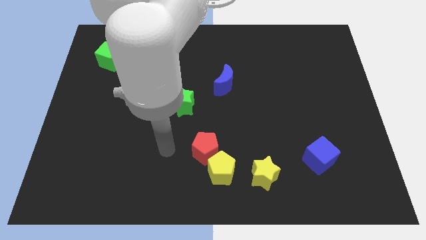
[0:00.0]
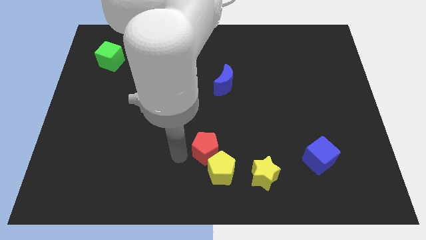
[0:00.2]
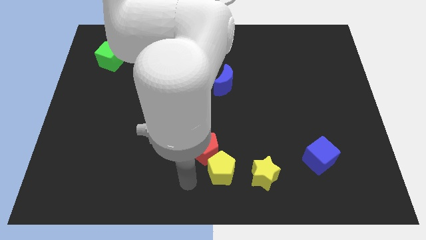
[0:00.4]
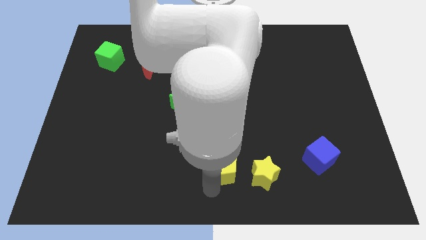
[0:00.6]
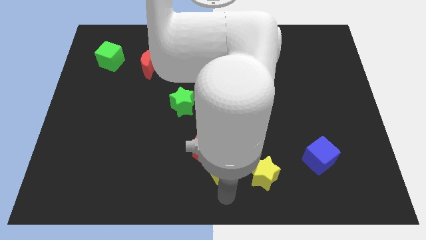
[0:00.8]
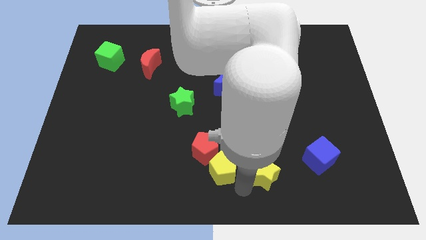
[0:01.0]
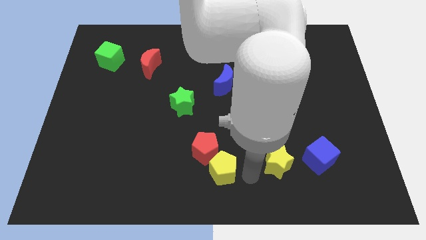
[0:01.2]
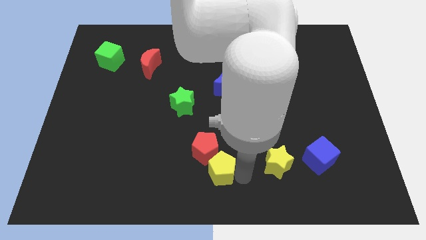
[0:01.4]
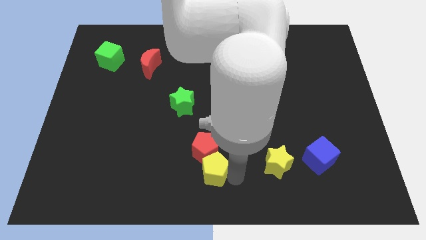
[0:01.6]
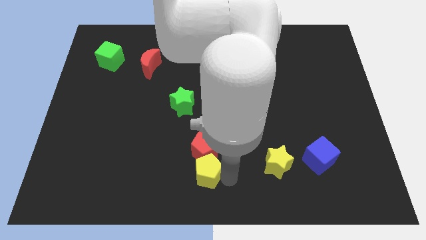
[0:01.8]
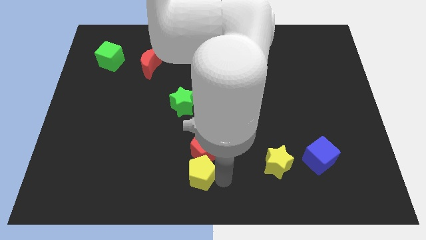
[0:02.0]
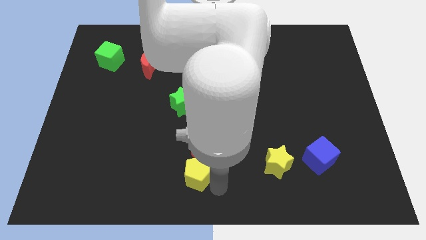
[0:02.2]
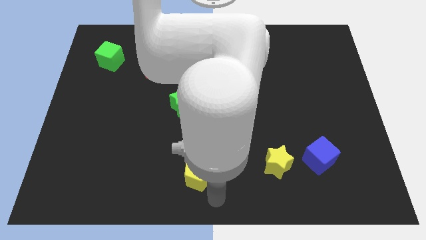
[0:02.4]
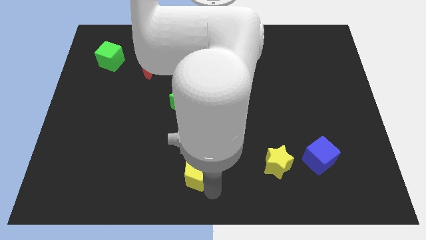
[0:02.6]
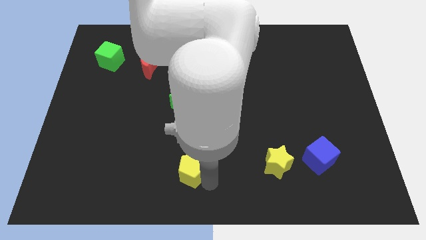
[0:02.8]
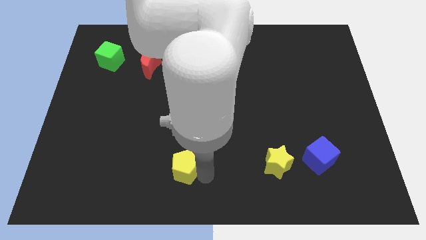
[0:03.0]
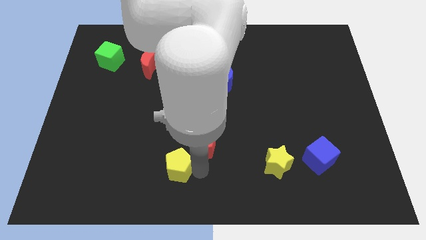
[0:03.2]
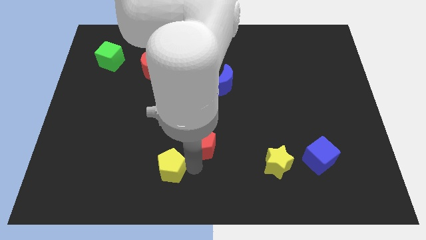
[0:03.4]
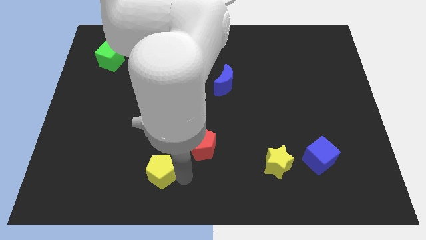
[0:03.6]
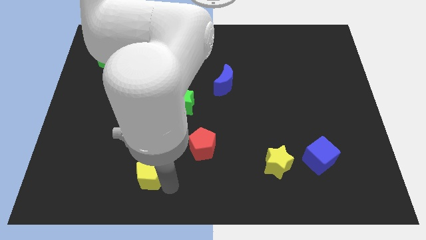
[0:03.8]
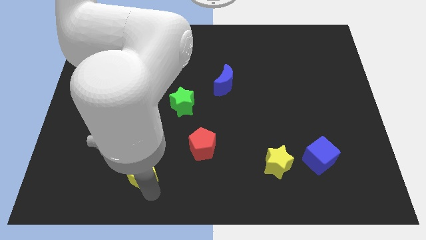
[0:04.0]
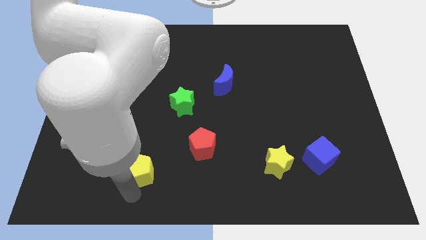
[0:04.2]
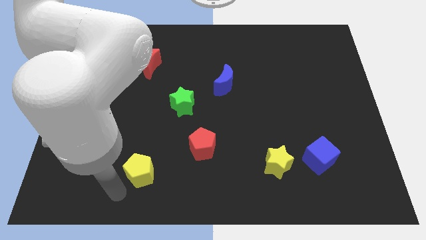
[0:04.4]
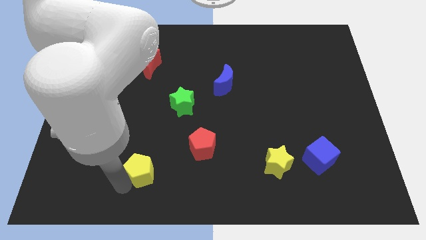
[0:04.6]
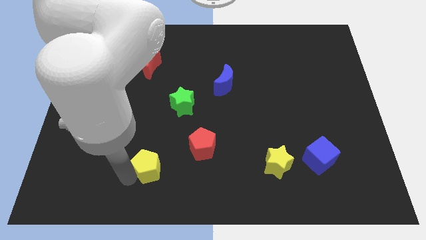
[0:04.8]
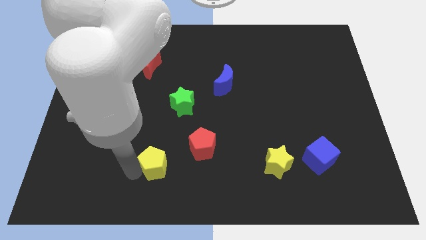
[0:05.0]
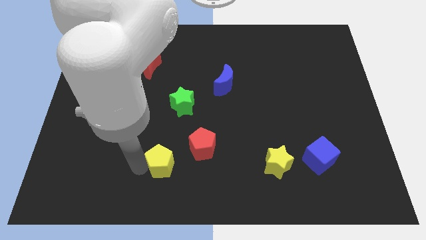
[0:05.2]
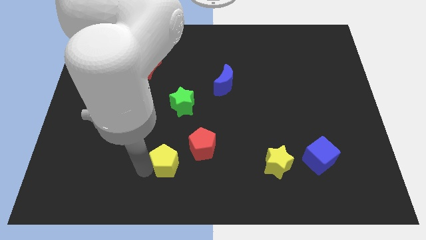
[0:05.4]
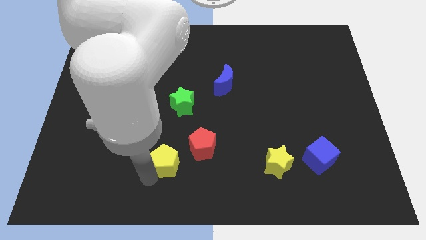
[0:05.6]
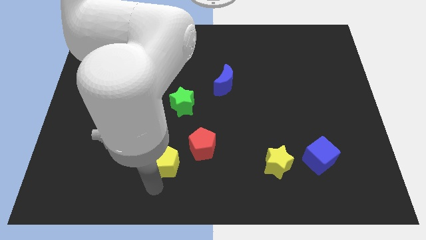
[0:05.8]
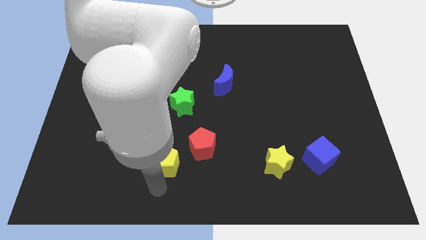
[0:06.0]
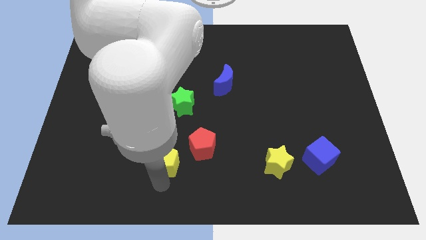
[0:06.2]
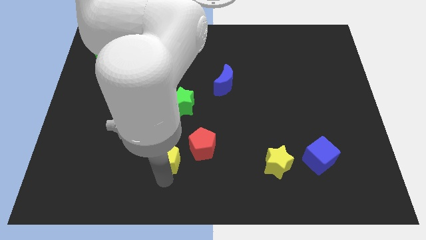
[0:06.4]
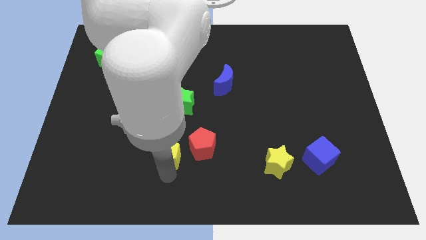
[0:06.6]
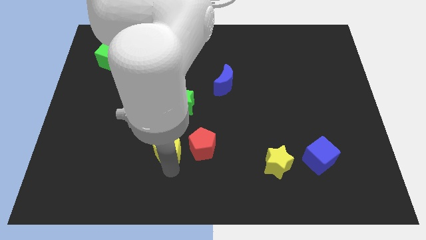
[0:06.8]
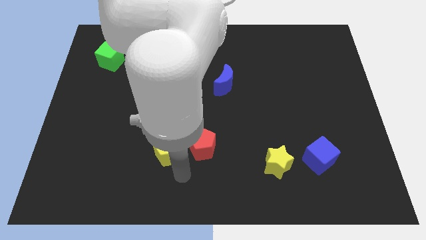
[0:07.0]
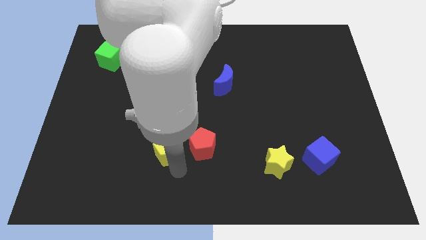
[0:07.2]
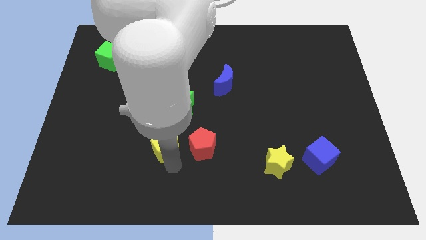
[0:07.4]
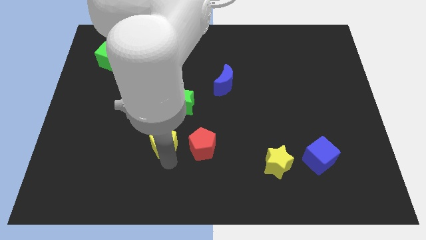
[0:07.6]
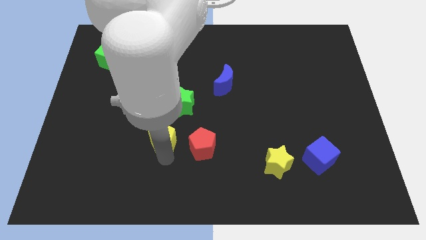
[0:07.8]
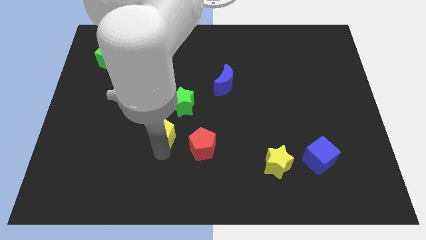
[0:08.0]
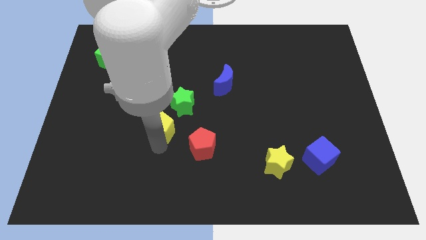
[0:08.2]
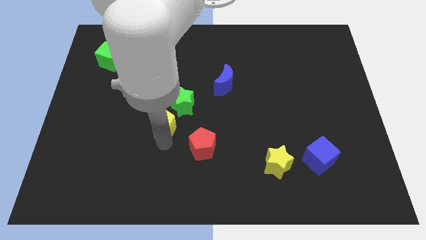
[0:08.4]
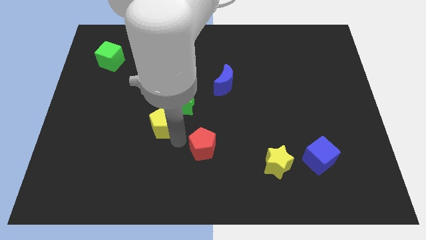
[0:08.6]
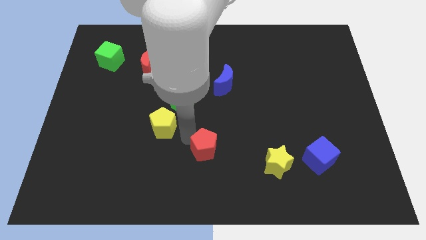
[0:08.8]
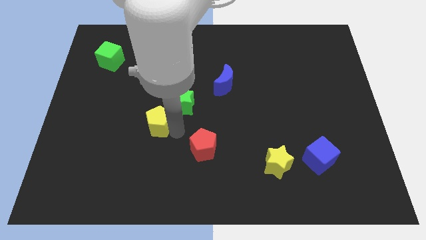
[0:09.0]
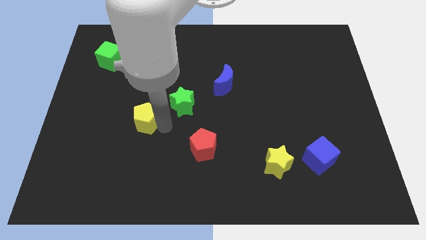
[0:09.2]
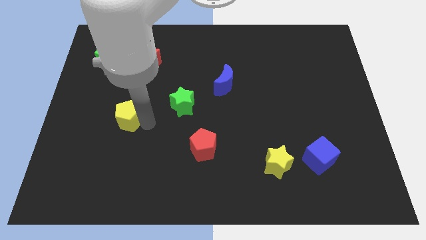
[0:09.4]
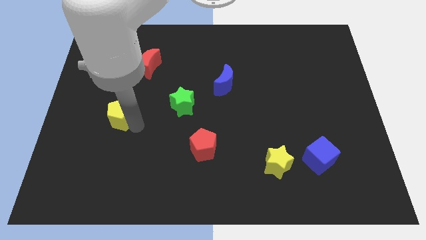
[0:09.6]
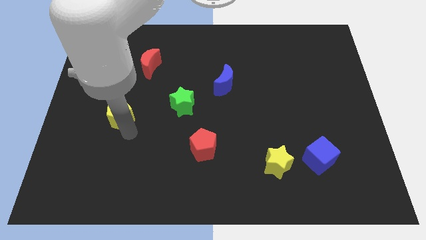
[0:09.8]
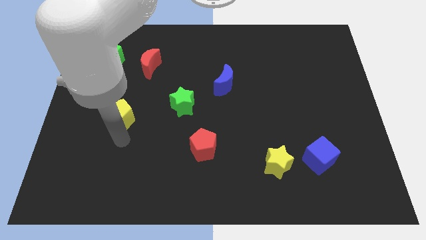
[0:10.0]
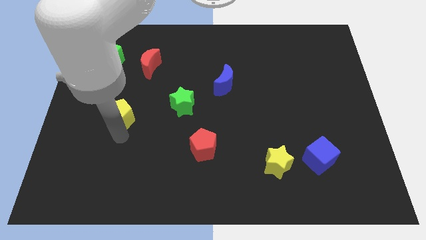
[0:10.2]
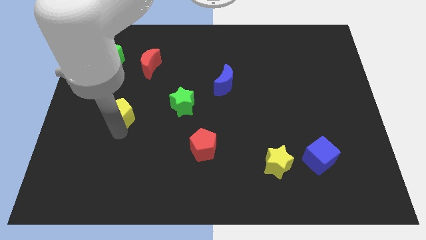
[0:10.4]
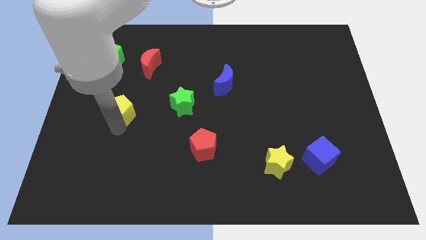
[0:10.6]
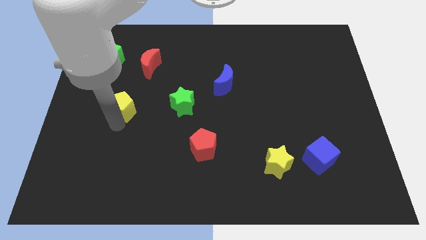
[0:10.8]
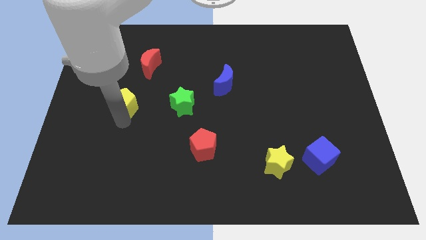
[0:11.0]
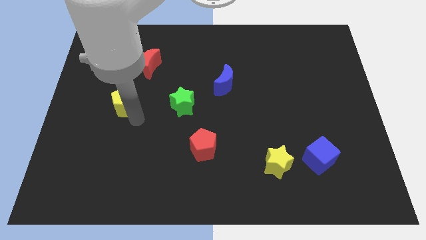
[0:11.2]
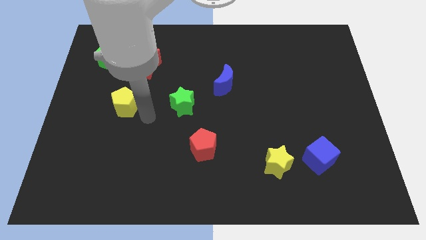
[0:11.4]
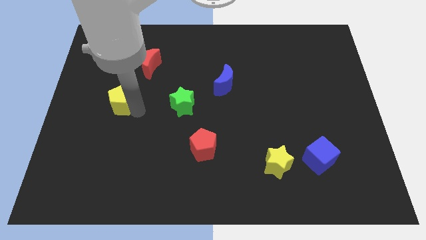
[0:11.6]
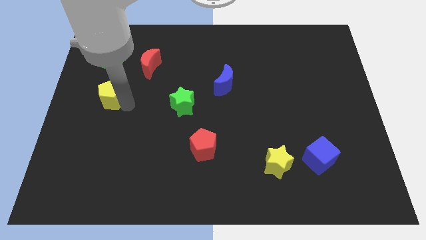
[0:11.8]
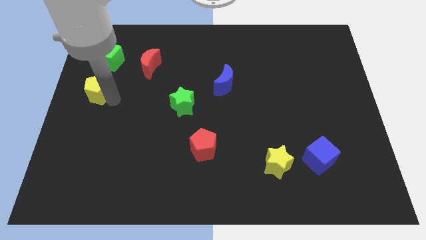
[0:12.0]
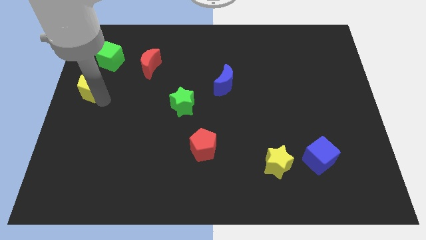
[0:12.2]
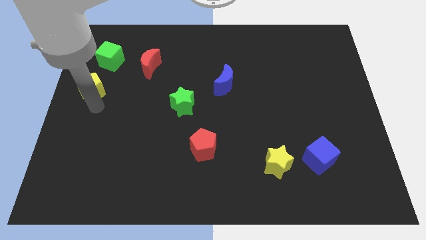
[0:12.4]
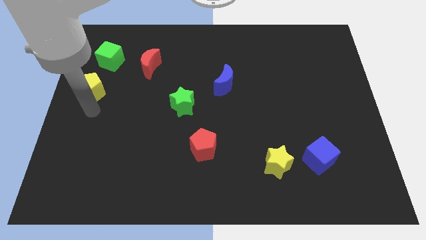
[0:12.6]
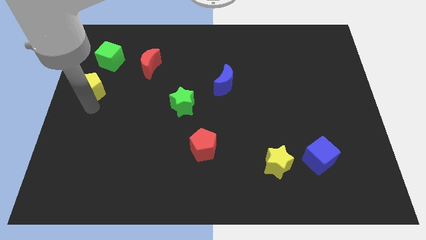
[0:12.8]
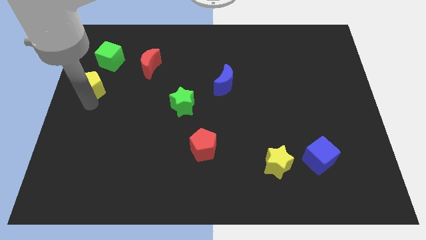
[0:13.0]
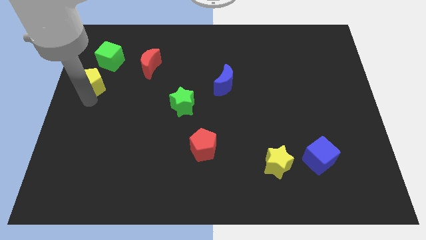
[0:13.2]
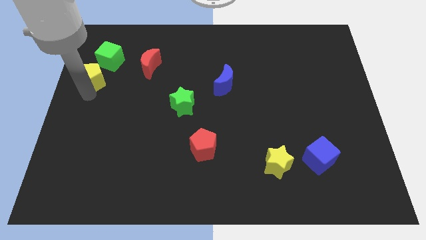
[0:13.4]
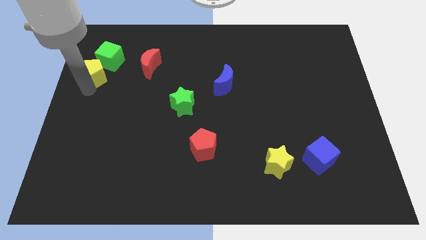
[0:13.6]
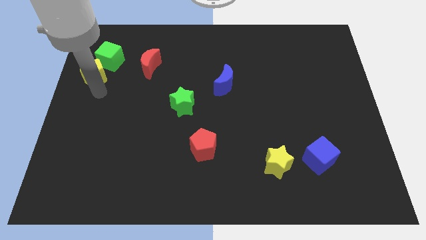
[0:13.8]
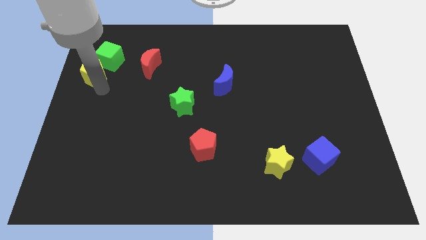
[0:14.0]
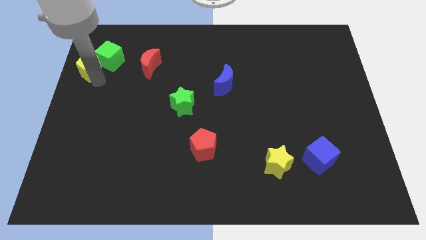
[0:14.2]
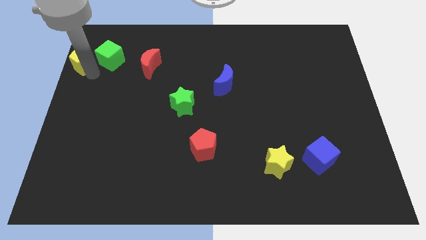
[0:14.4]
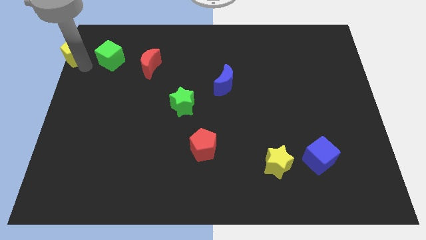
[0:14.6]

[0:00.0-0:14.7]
move the yellow pentagon to the top left of the board

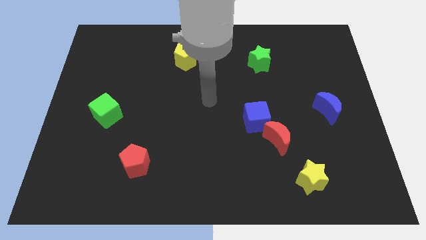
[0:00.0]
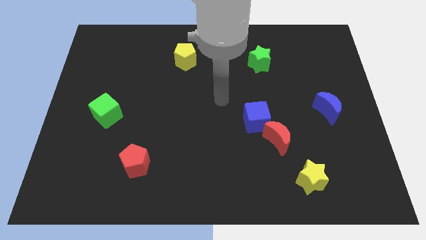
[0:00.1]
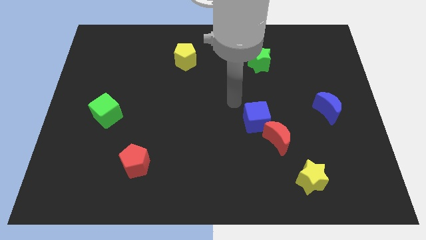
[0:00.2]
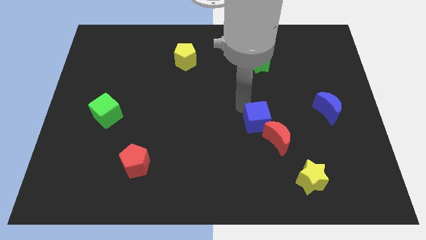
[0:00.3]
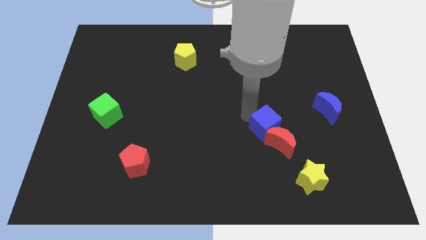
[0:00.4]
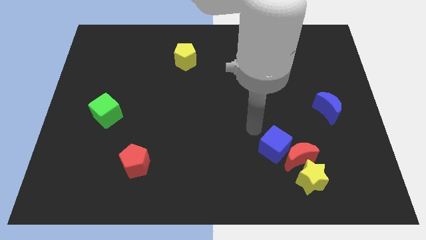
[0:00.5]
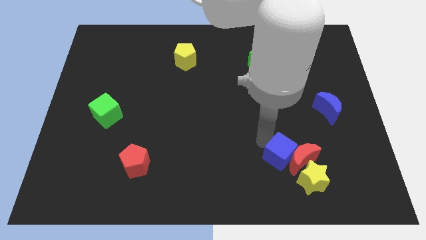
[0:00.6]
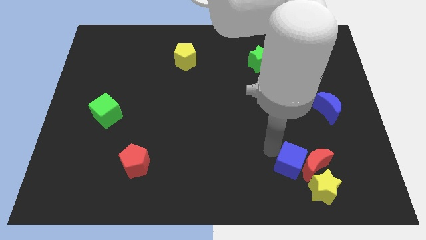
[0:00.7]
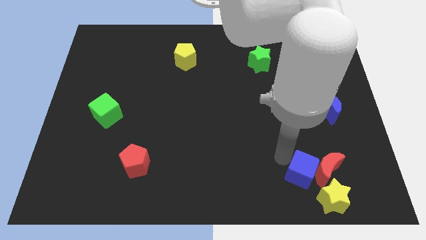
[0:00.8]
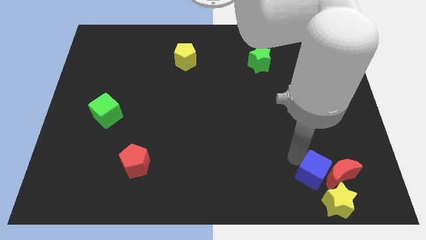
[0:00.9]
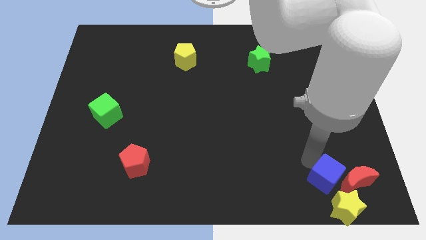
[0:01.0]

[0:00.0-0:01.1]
put the red moon to the lower right corner
